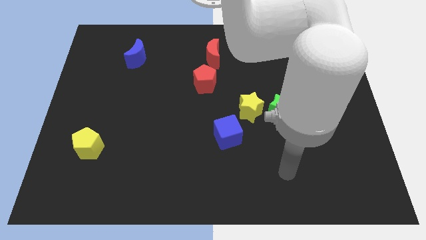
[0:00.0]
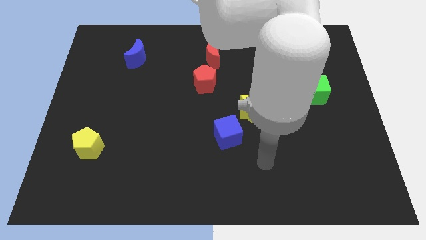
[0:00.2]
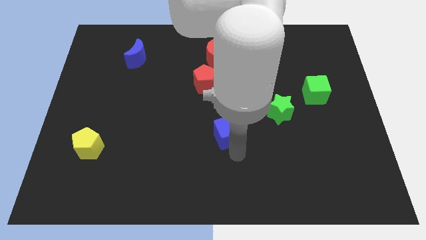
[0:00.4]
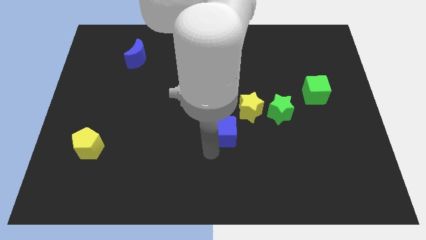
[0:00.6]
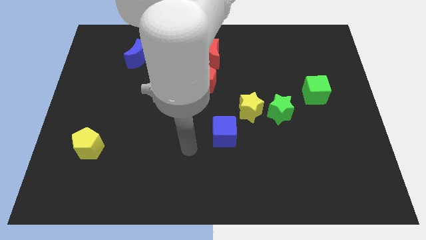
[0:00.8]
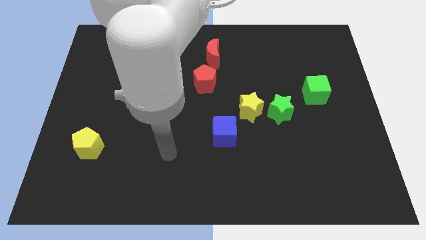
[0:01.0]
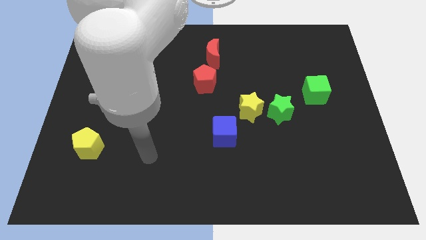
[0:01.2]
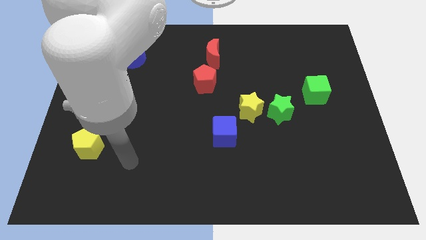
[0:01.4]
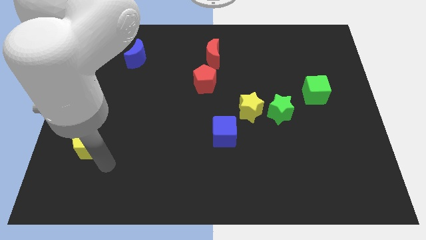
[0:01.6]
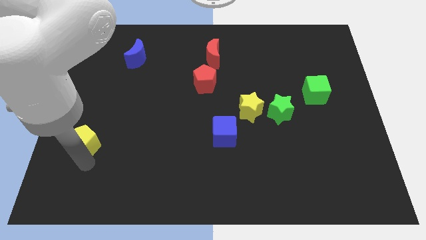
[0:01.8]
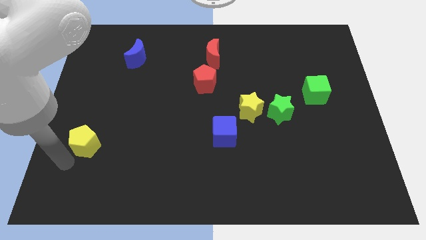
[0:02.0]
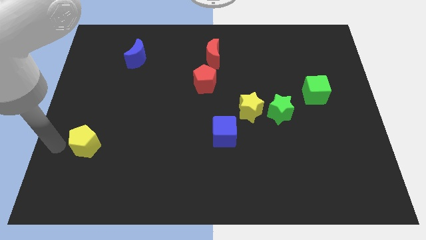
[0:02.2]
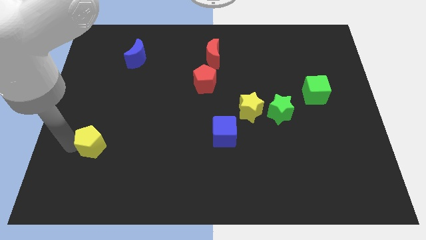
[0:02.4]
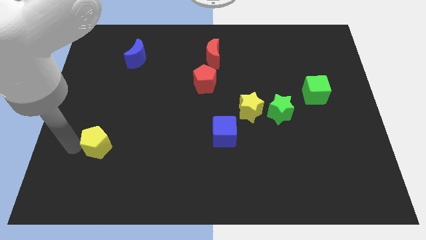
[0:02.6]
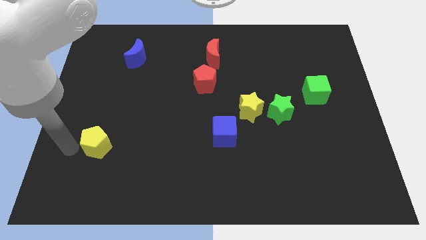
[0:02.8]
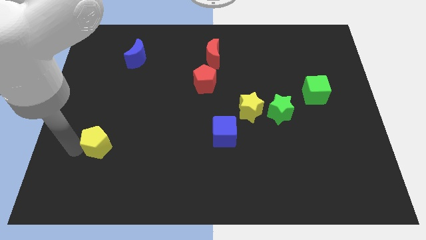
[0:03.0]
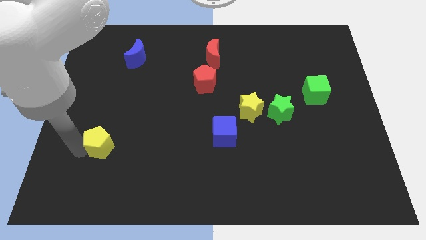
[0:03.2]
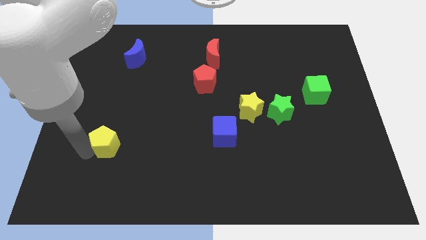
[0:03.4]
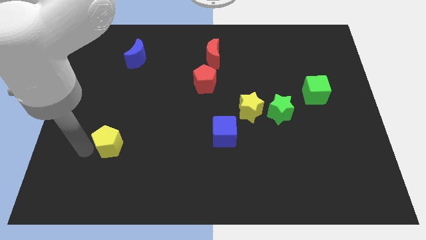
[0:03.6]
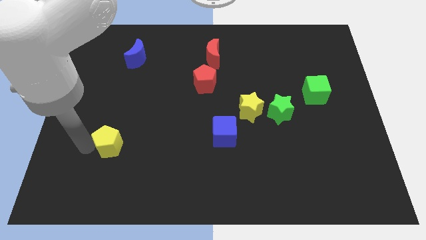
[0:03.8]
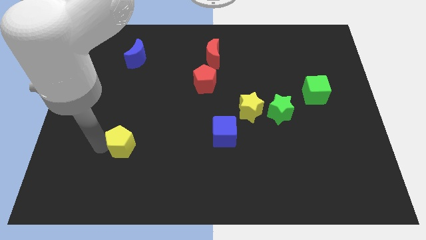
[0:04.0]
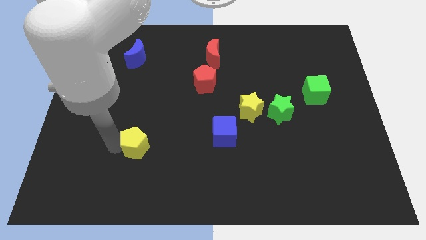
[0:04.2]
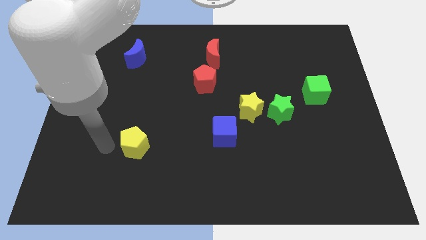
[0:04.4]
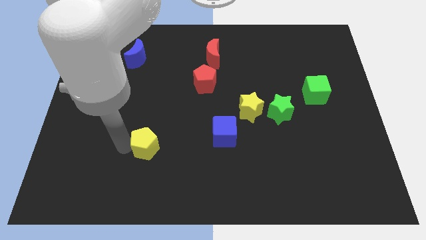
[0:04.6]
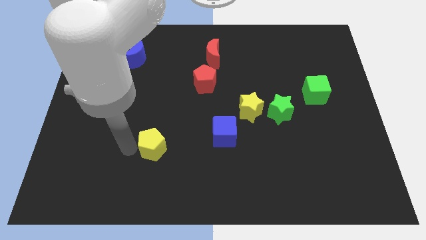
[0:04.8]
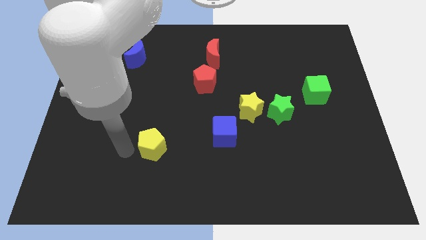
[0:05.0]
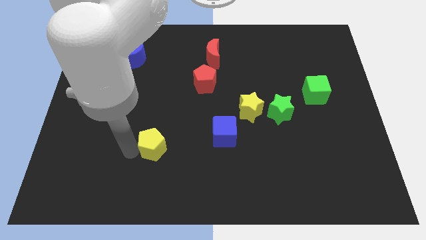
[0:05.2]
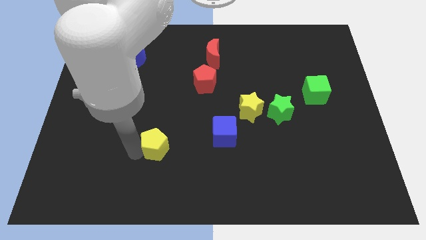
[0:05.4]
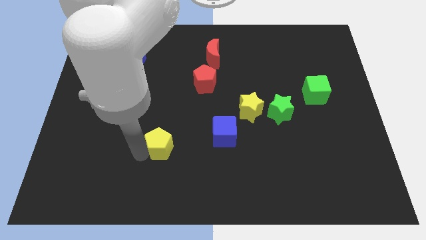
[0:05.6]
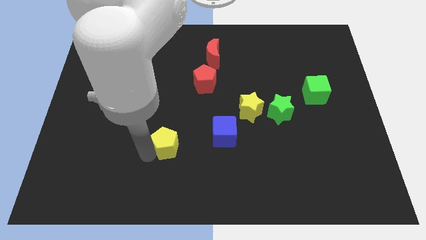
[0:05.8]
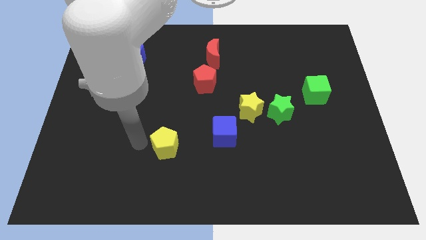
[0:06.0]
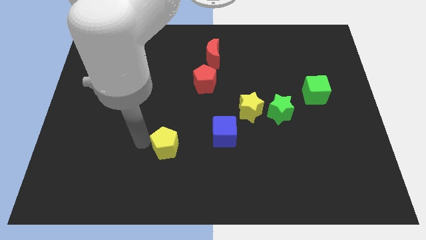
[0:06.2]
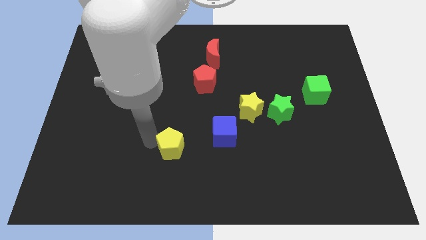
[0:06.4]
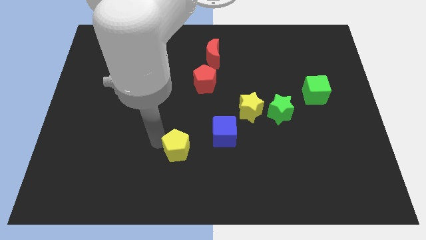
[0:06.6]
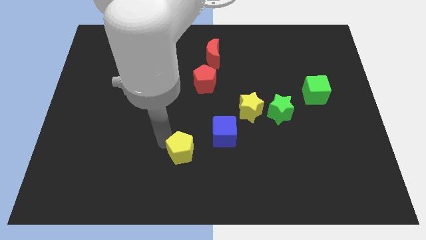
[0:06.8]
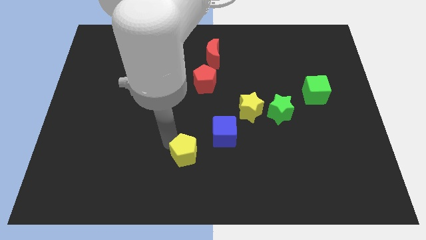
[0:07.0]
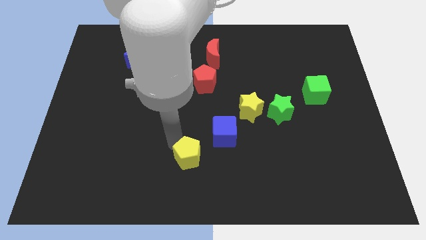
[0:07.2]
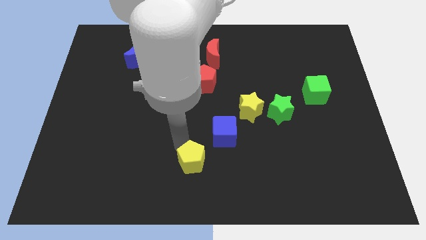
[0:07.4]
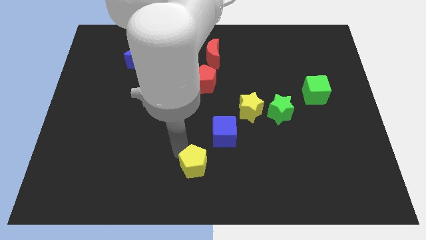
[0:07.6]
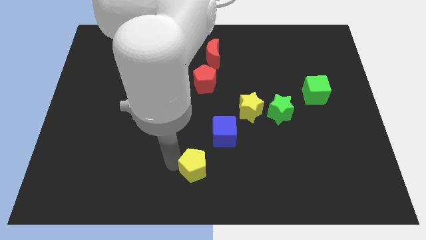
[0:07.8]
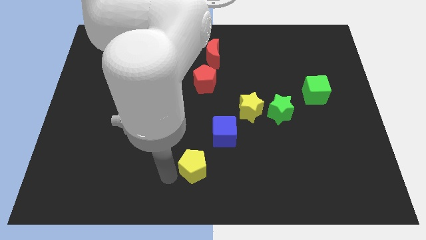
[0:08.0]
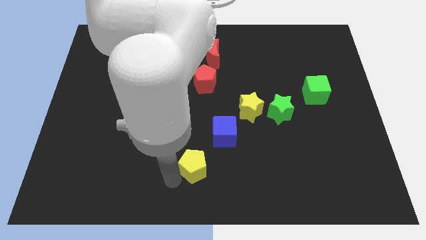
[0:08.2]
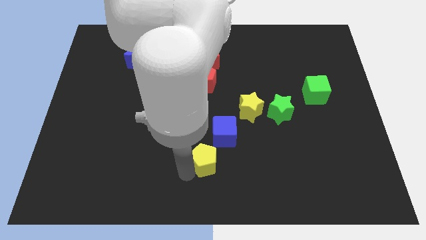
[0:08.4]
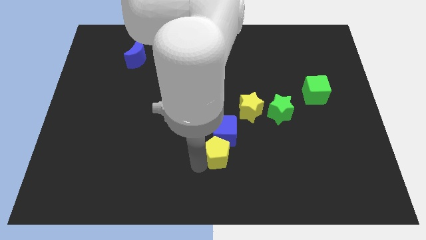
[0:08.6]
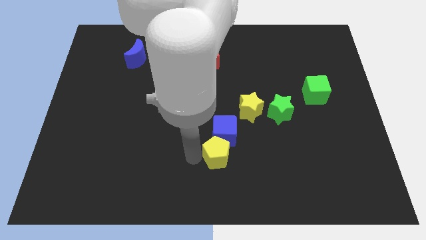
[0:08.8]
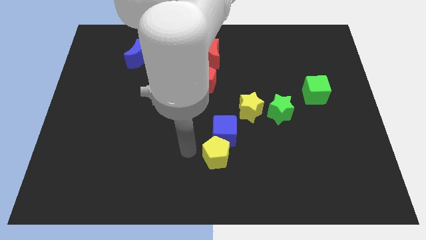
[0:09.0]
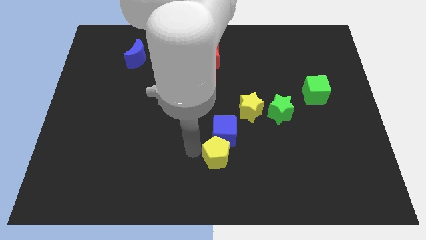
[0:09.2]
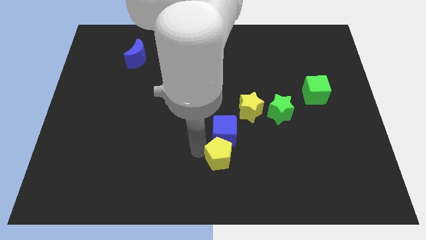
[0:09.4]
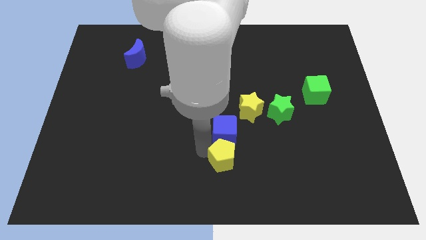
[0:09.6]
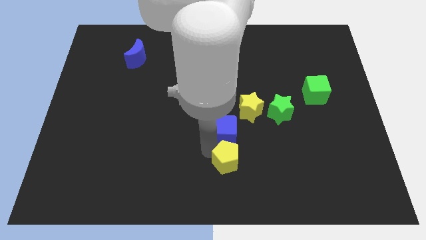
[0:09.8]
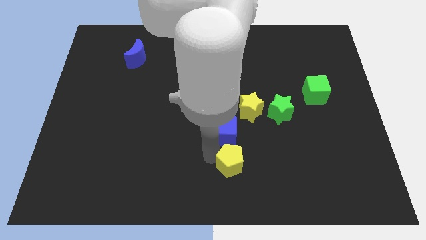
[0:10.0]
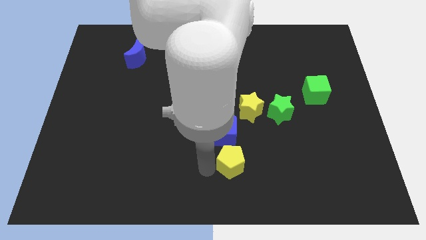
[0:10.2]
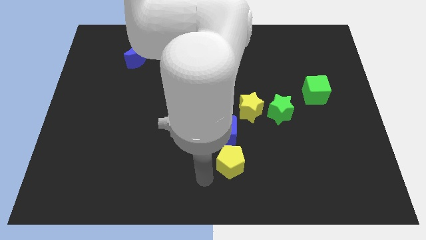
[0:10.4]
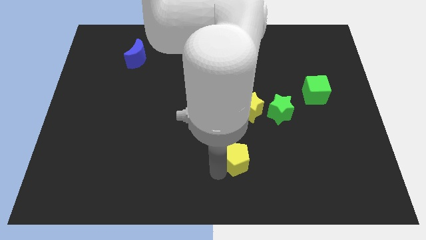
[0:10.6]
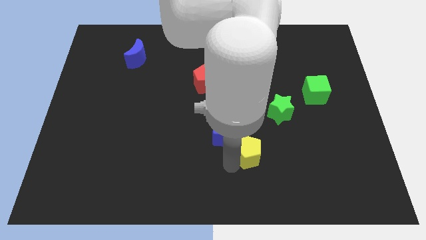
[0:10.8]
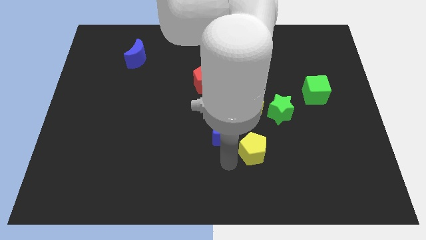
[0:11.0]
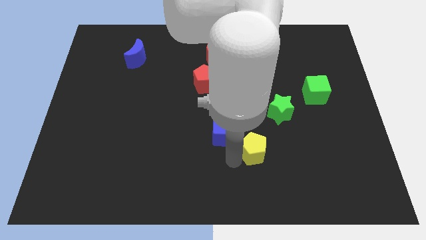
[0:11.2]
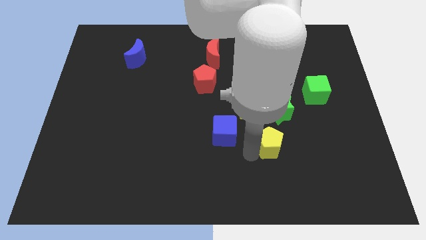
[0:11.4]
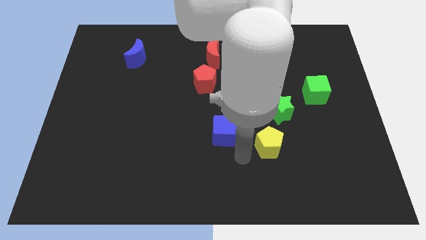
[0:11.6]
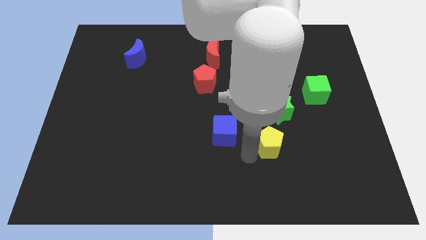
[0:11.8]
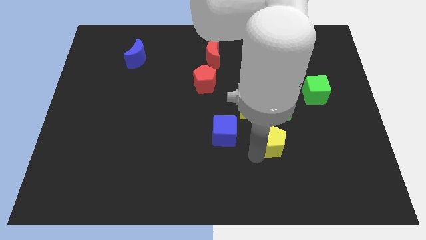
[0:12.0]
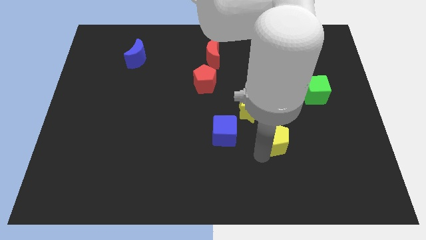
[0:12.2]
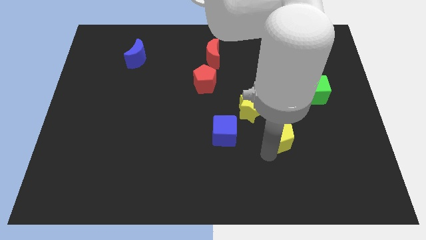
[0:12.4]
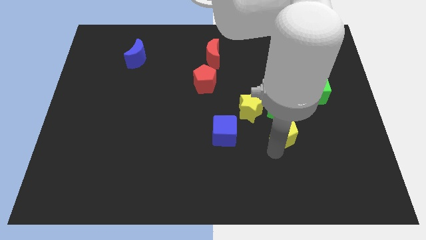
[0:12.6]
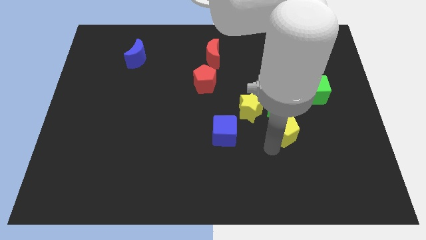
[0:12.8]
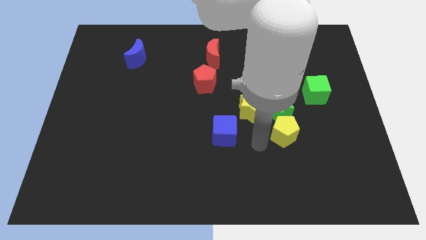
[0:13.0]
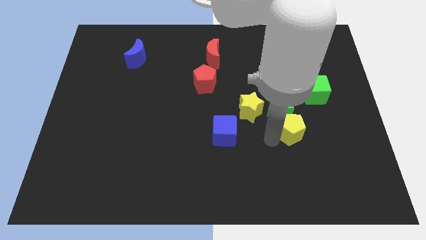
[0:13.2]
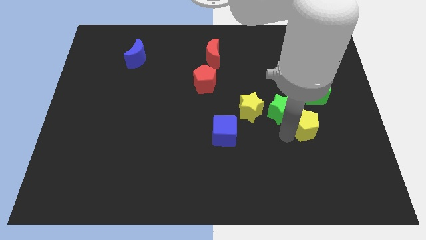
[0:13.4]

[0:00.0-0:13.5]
move the yellow pentagon to the right side of the green star
